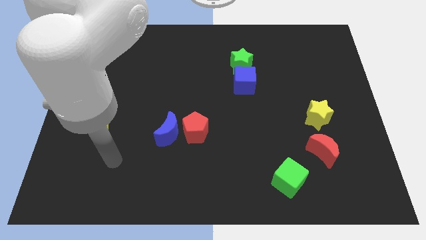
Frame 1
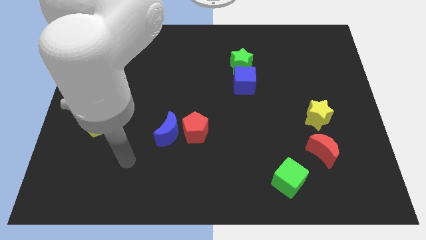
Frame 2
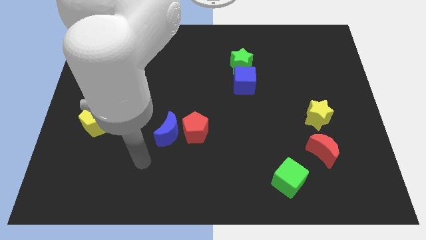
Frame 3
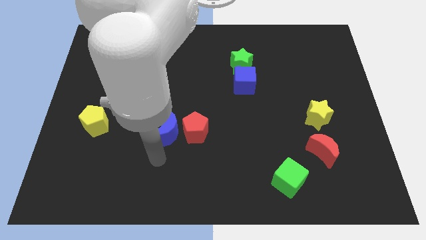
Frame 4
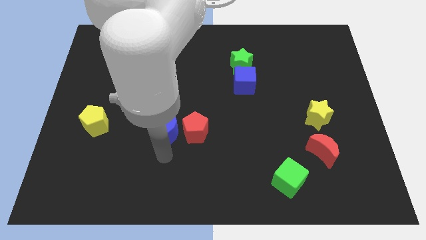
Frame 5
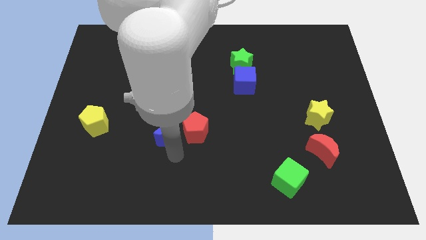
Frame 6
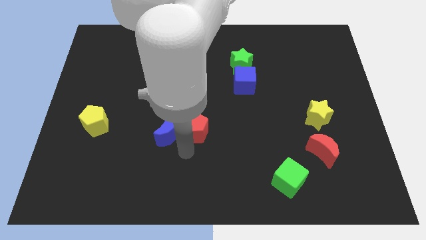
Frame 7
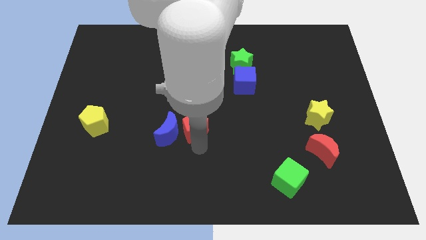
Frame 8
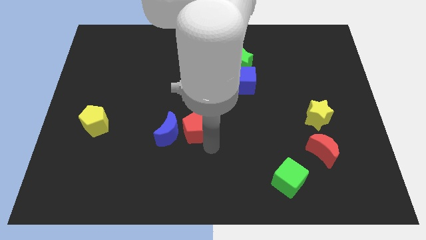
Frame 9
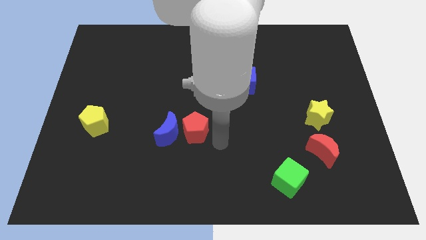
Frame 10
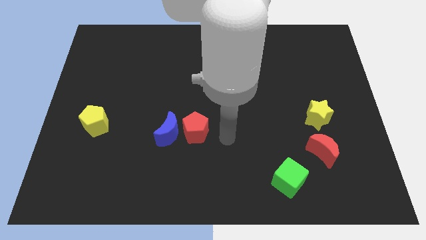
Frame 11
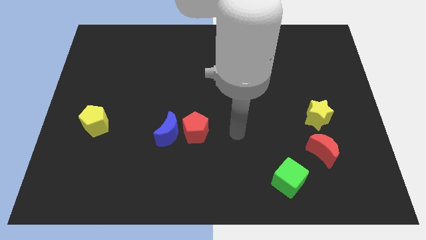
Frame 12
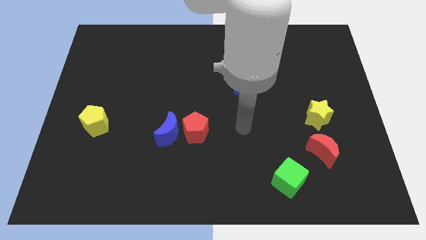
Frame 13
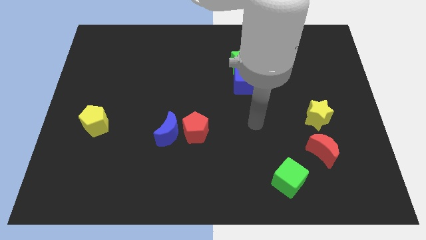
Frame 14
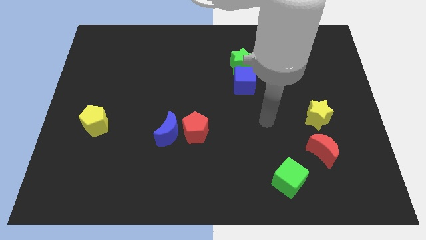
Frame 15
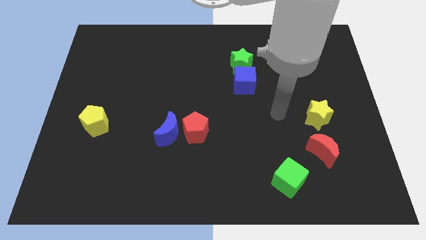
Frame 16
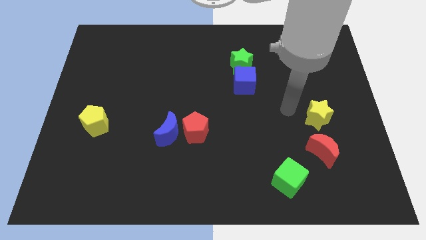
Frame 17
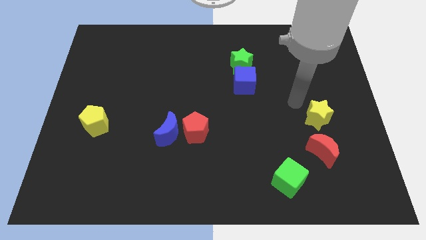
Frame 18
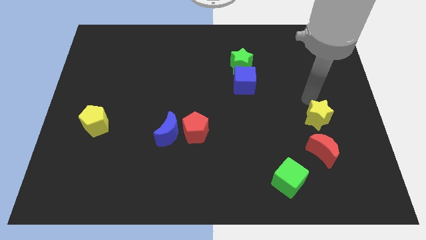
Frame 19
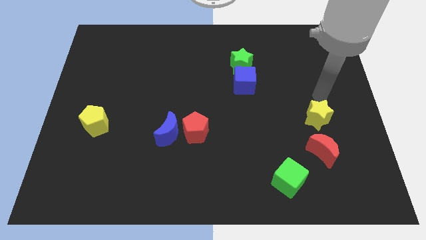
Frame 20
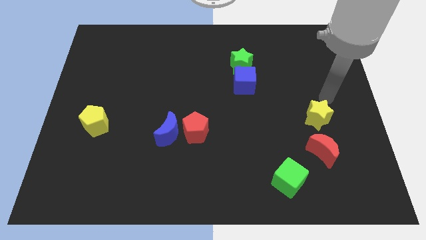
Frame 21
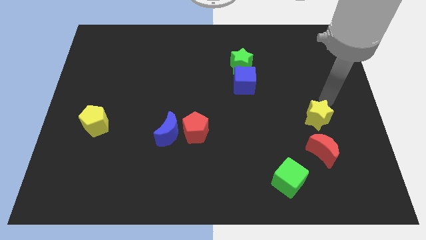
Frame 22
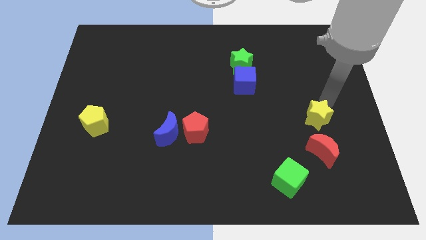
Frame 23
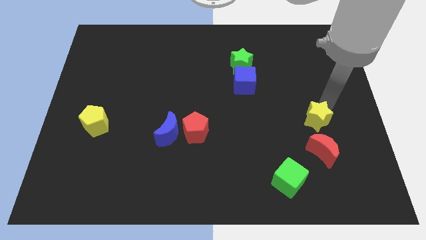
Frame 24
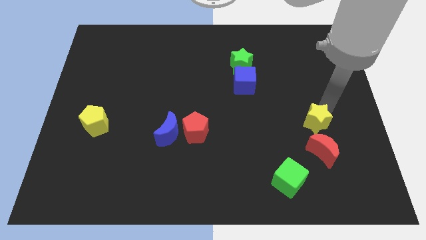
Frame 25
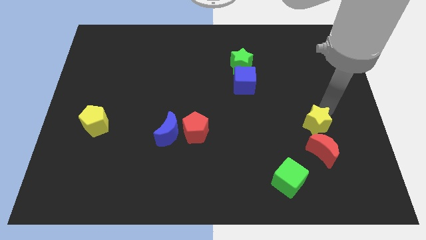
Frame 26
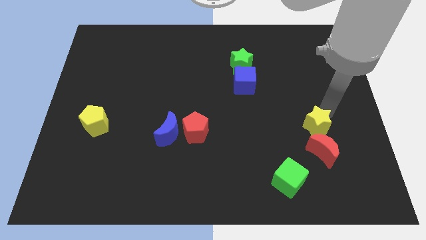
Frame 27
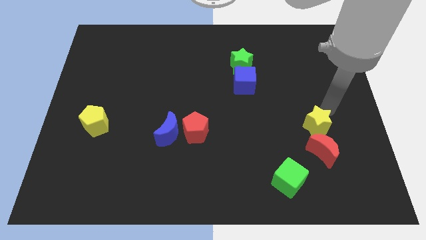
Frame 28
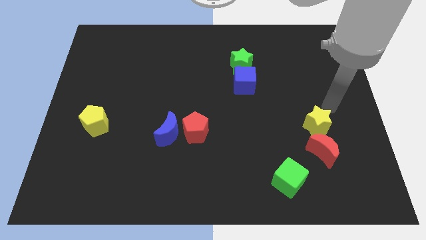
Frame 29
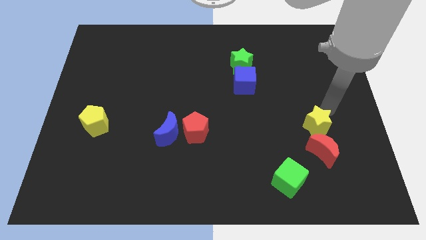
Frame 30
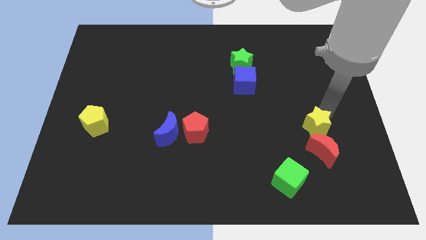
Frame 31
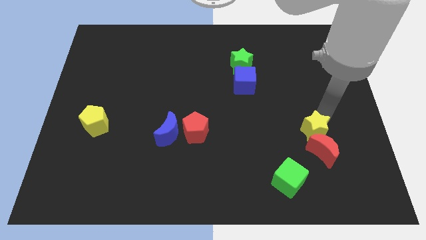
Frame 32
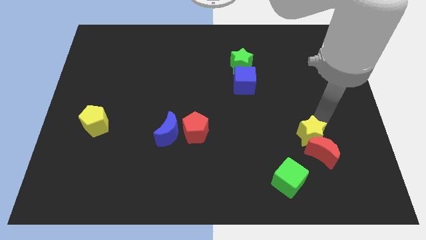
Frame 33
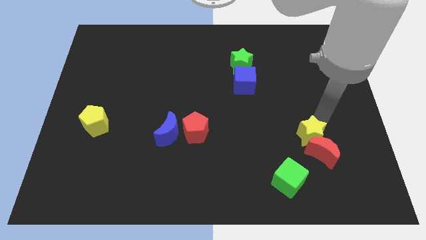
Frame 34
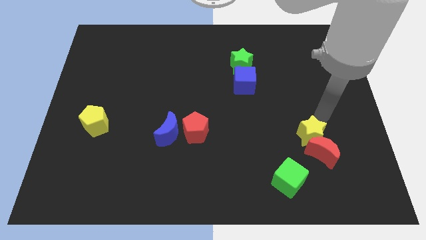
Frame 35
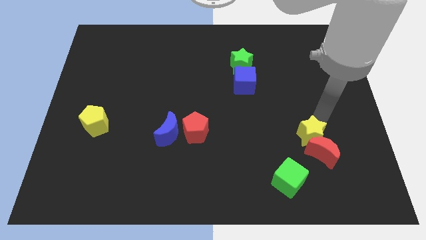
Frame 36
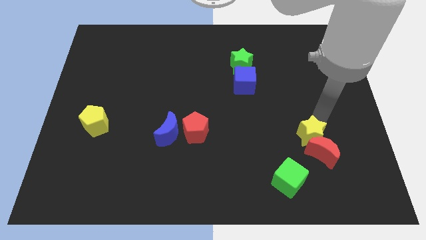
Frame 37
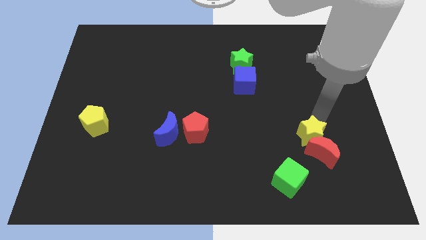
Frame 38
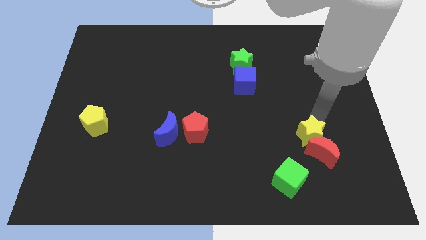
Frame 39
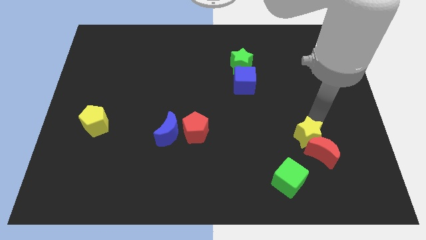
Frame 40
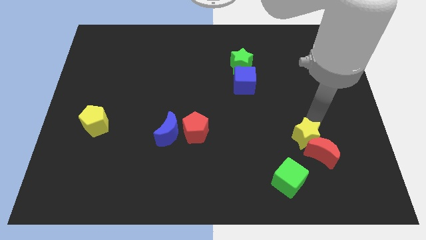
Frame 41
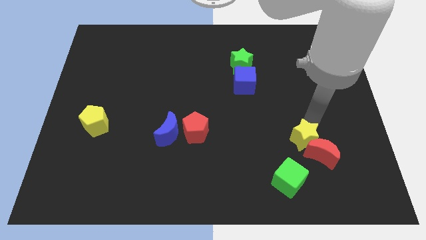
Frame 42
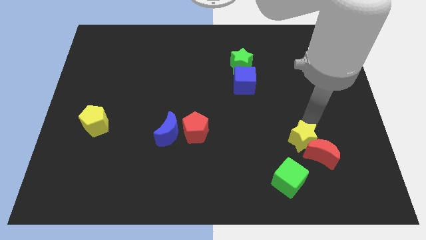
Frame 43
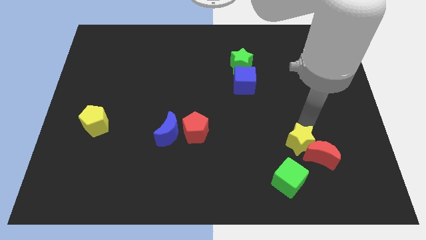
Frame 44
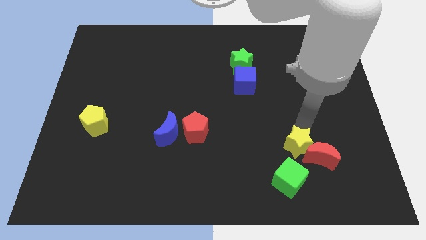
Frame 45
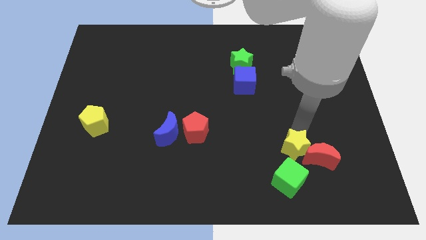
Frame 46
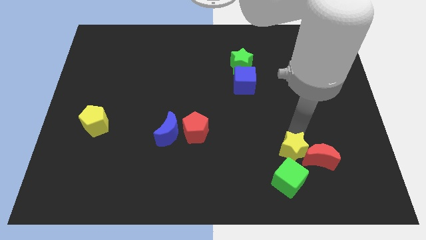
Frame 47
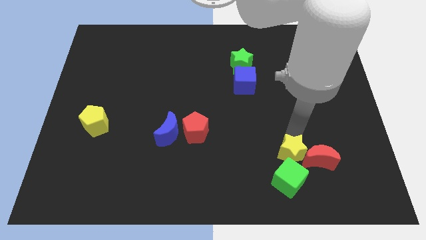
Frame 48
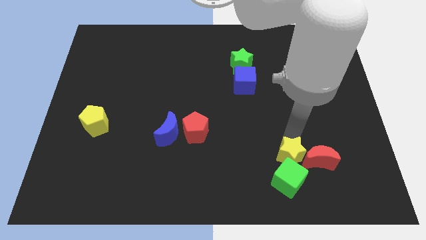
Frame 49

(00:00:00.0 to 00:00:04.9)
put the yellow star close to the green cube

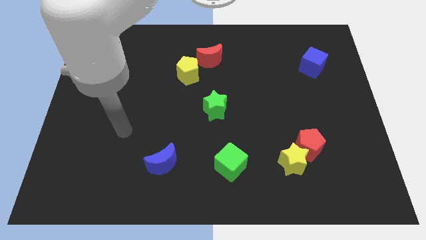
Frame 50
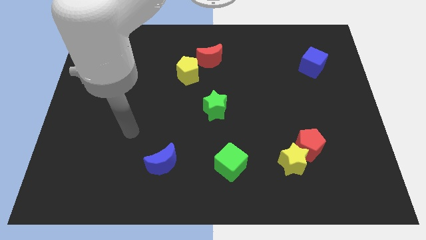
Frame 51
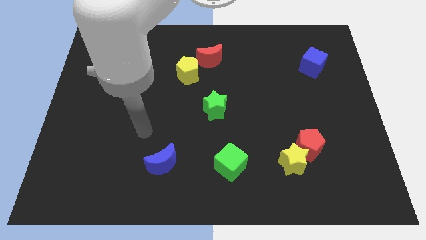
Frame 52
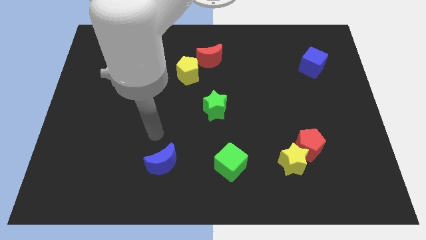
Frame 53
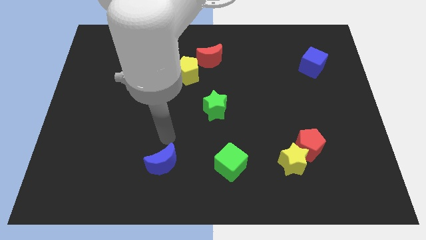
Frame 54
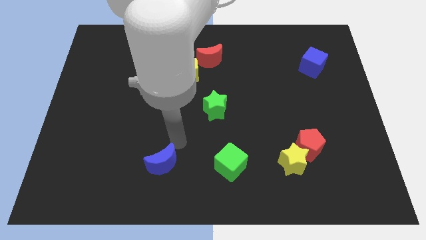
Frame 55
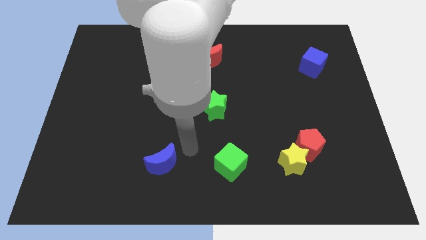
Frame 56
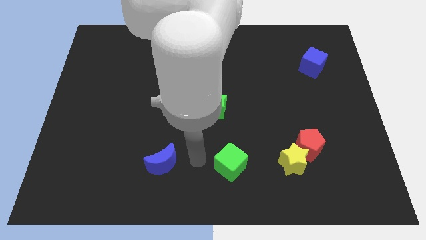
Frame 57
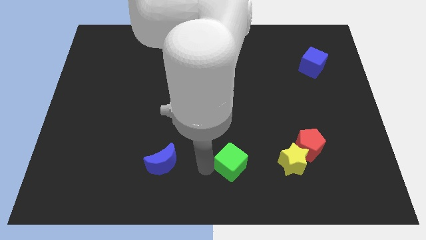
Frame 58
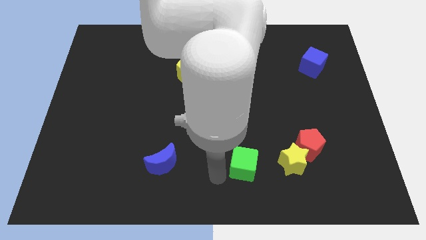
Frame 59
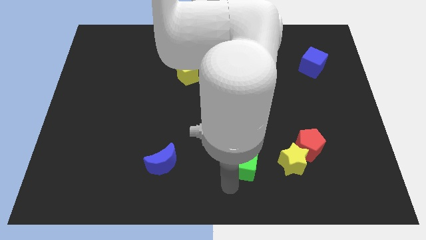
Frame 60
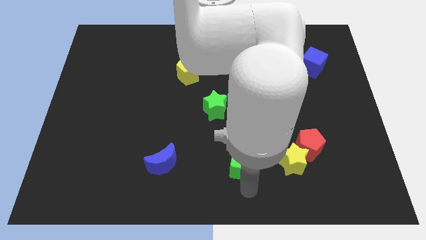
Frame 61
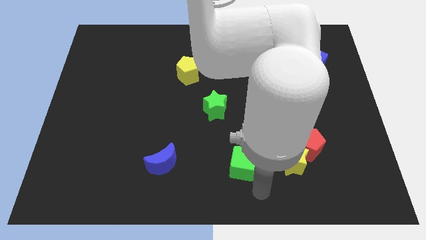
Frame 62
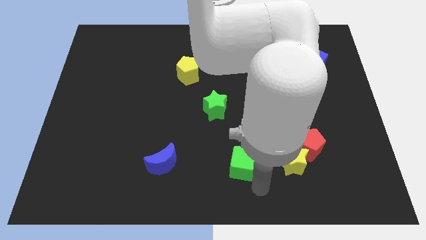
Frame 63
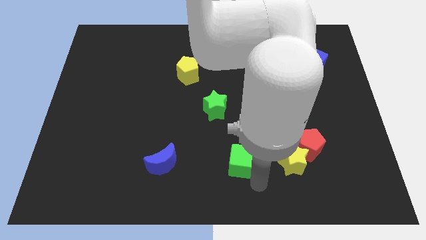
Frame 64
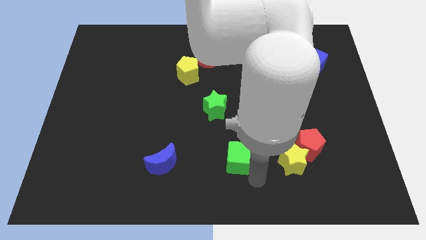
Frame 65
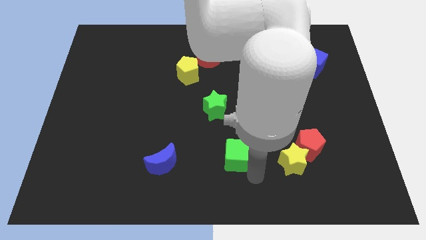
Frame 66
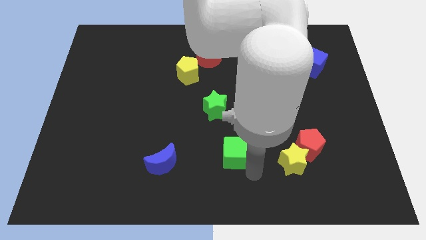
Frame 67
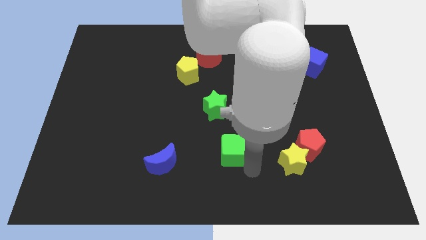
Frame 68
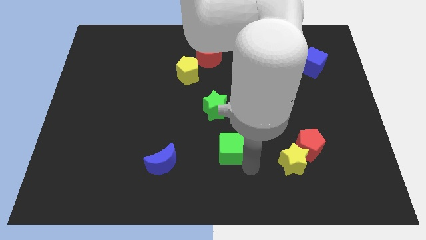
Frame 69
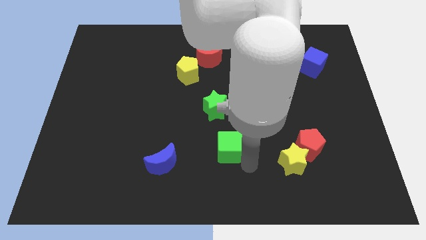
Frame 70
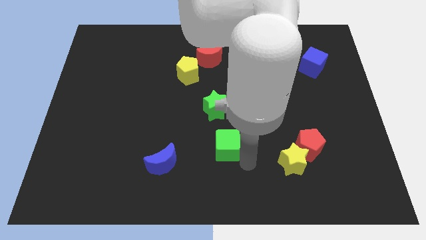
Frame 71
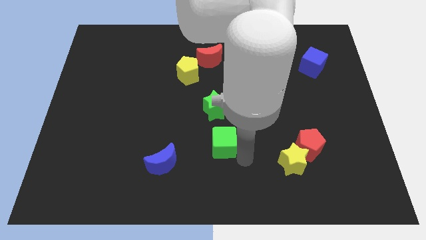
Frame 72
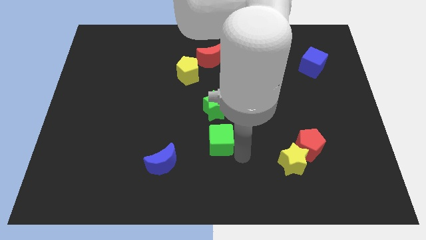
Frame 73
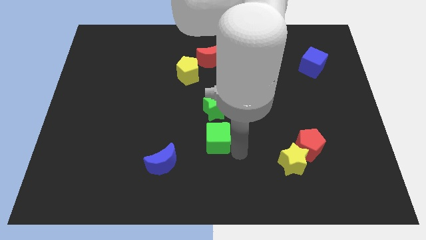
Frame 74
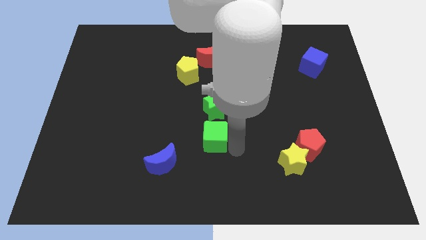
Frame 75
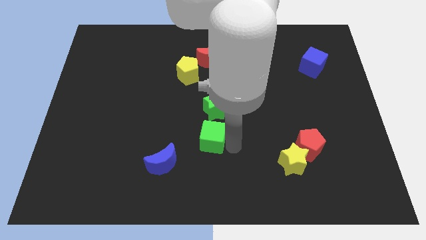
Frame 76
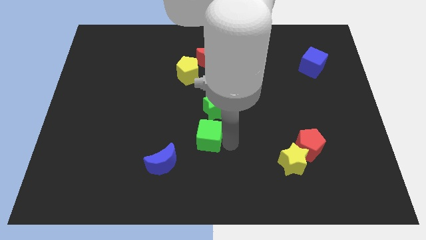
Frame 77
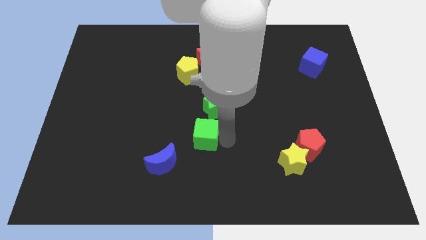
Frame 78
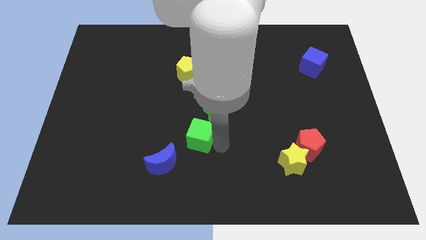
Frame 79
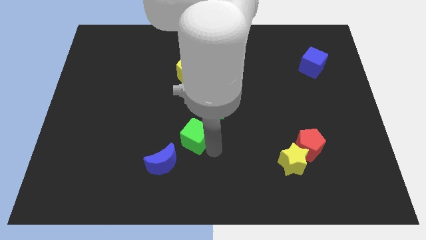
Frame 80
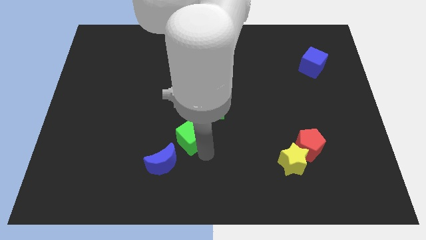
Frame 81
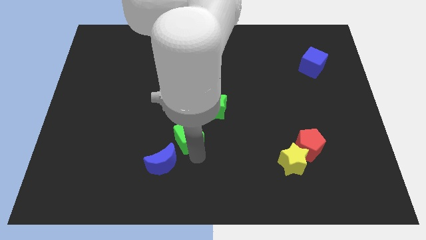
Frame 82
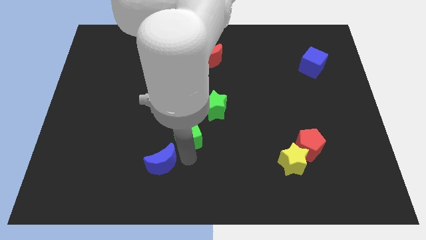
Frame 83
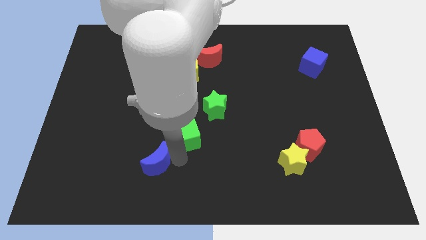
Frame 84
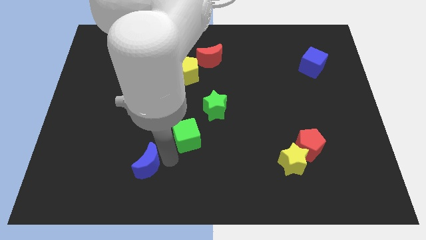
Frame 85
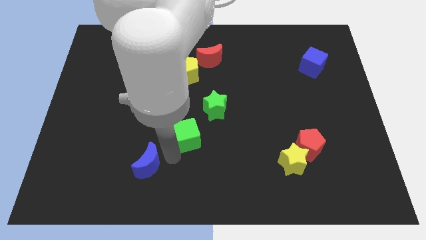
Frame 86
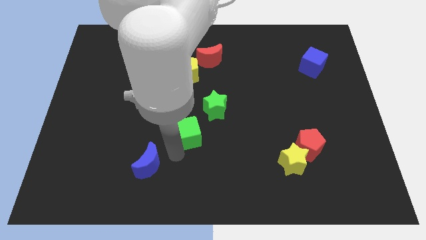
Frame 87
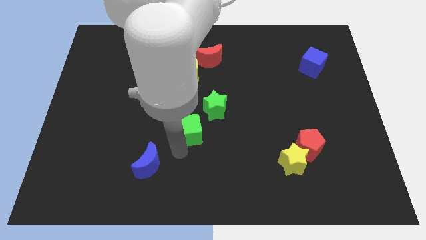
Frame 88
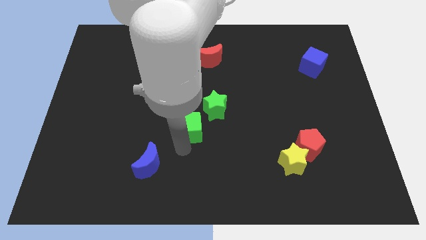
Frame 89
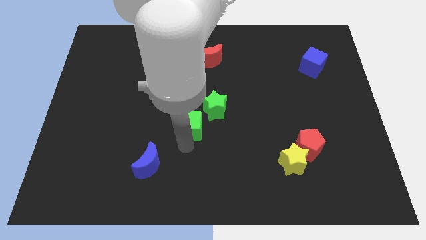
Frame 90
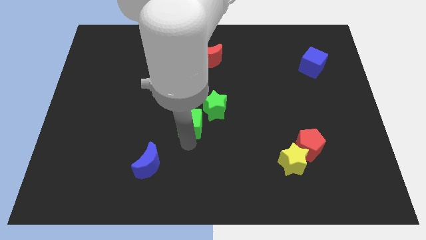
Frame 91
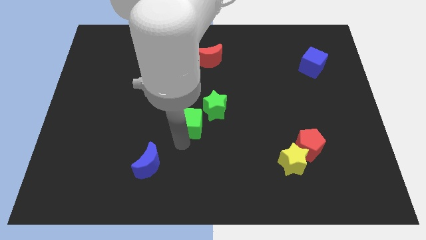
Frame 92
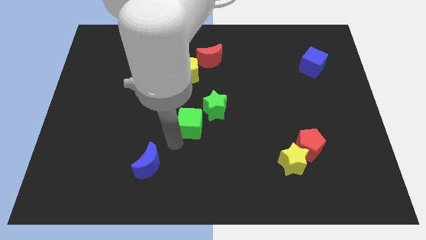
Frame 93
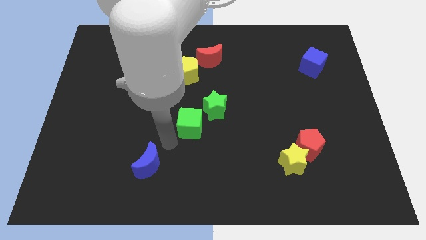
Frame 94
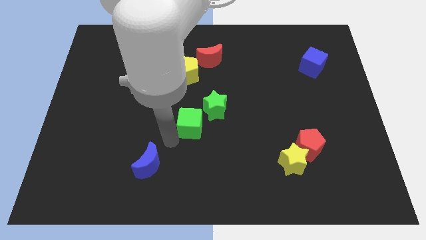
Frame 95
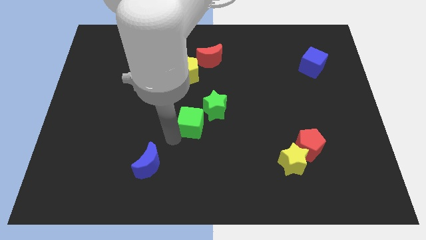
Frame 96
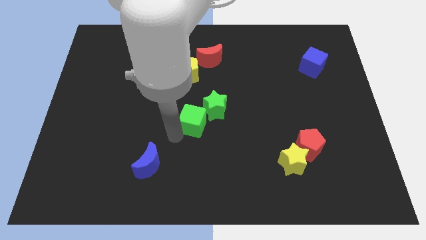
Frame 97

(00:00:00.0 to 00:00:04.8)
push the green cube close to the green star
